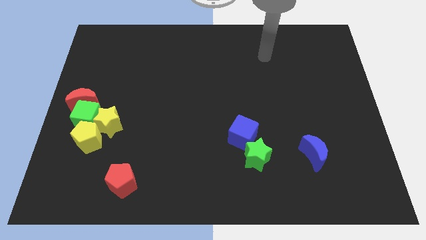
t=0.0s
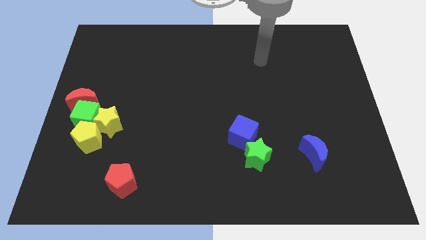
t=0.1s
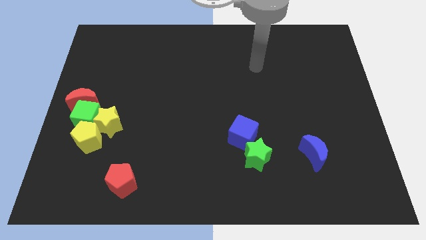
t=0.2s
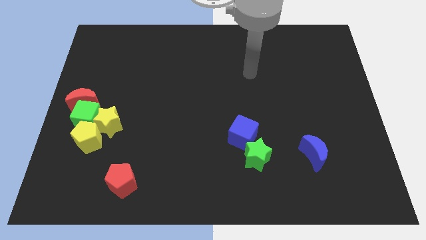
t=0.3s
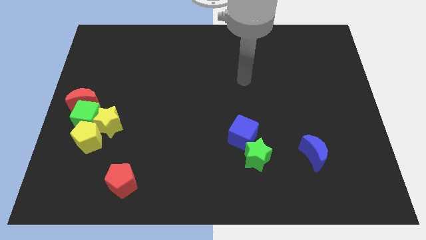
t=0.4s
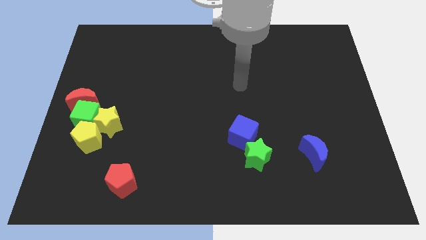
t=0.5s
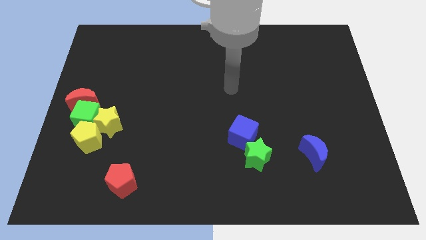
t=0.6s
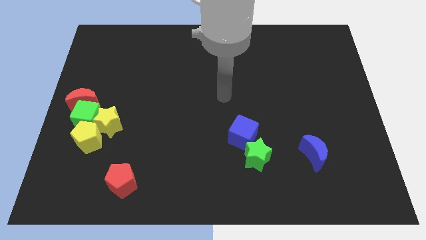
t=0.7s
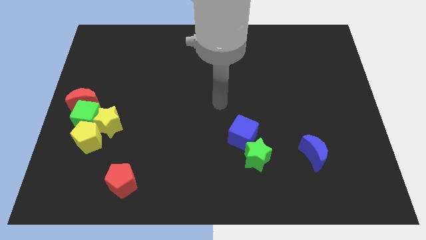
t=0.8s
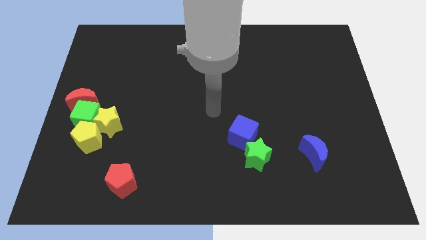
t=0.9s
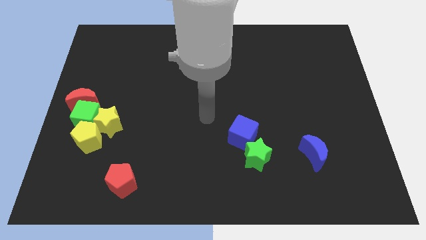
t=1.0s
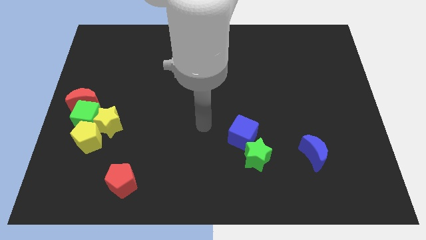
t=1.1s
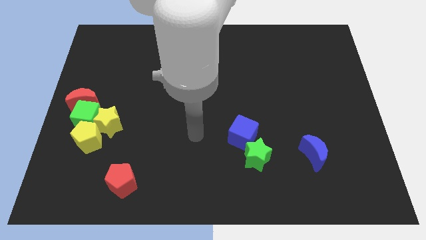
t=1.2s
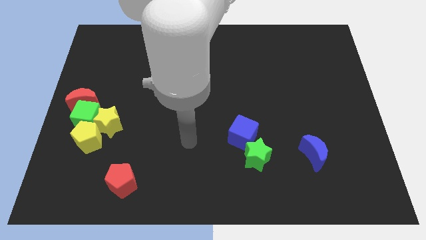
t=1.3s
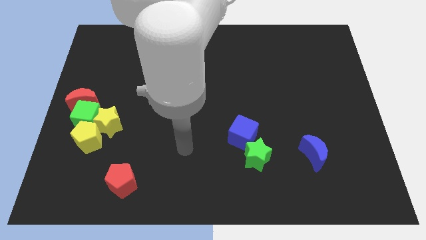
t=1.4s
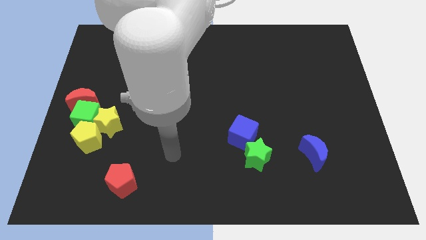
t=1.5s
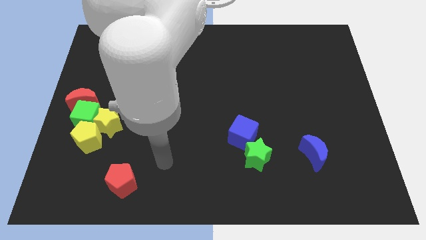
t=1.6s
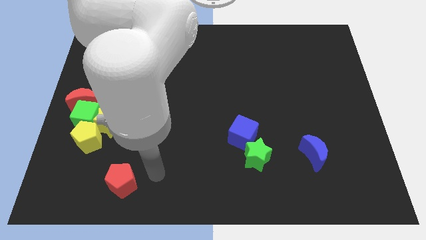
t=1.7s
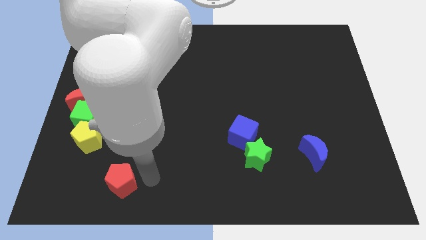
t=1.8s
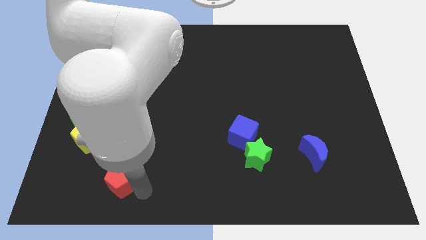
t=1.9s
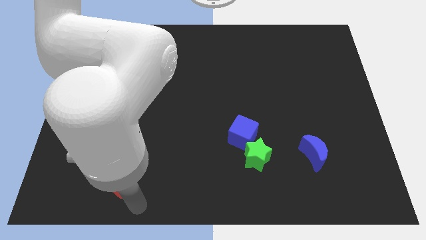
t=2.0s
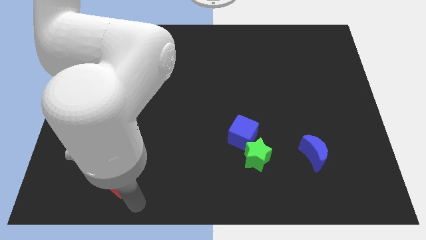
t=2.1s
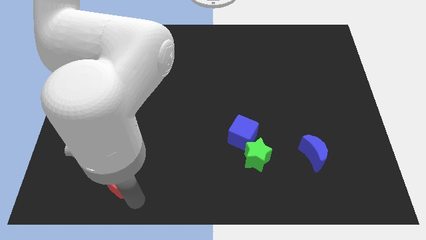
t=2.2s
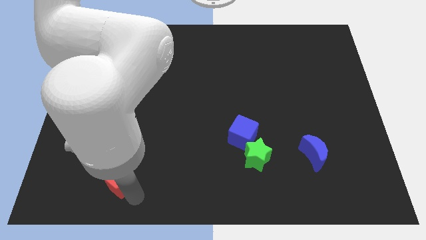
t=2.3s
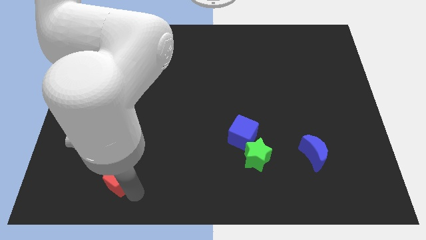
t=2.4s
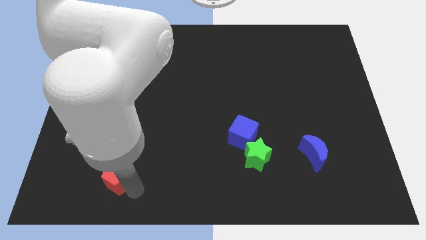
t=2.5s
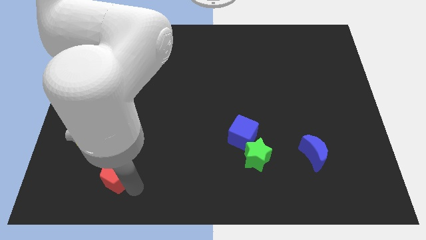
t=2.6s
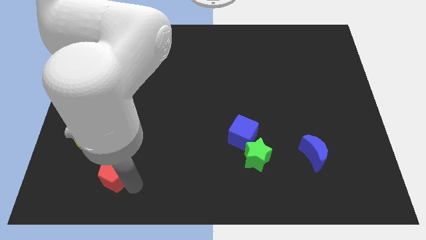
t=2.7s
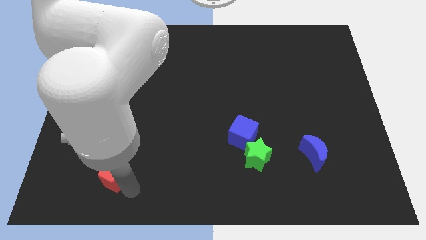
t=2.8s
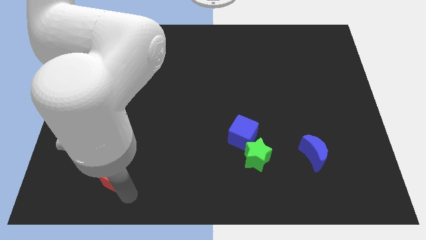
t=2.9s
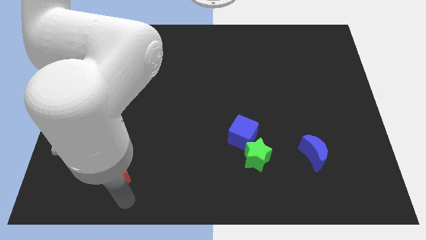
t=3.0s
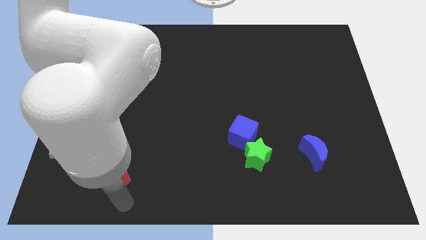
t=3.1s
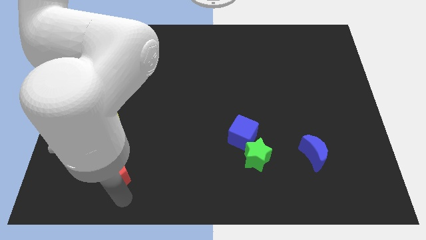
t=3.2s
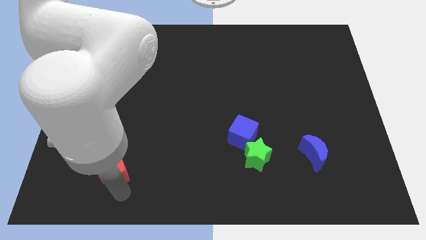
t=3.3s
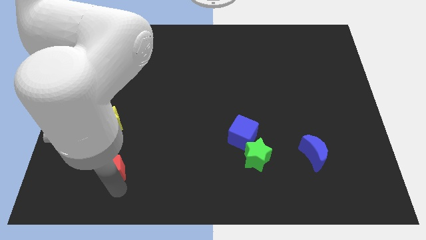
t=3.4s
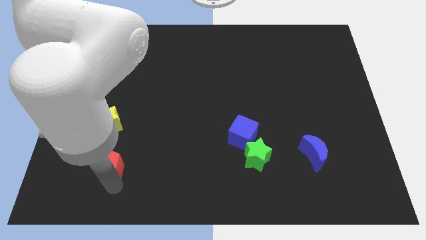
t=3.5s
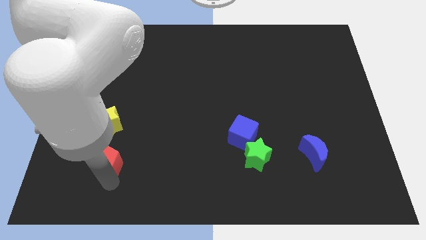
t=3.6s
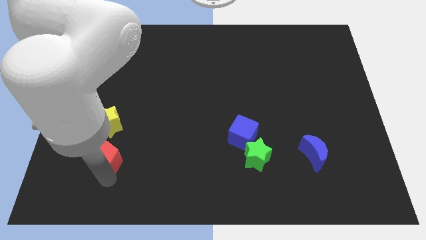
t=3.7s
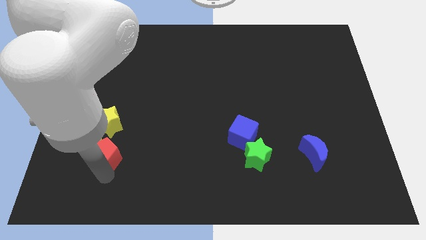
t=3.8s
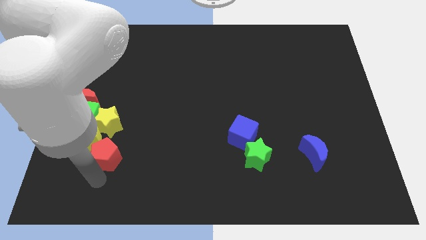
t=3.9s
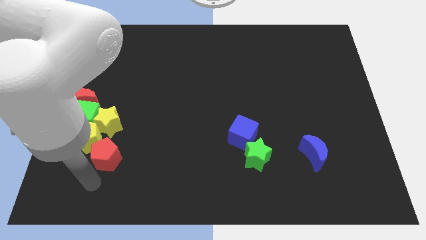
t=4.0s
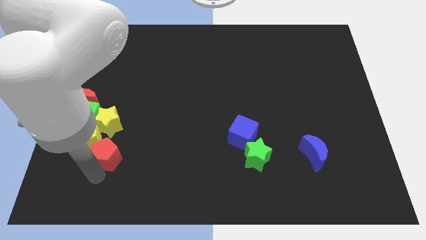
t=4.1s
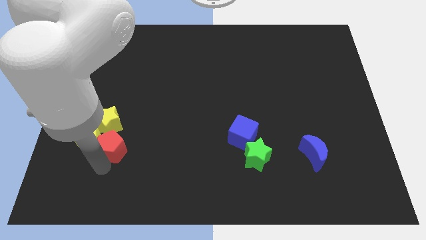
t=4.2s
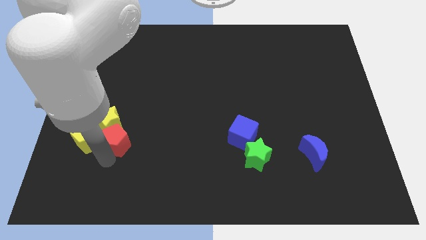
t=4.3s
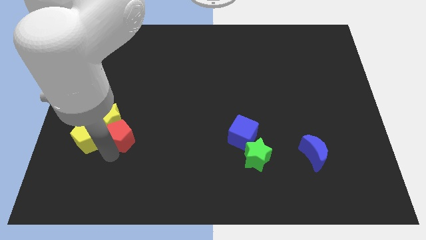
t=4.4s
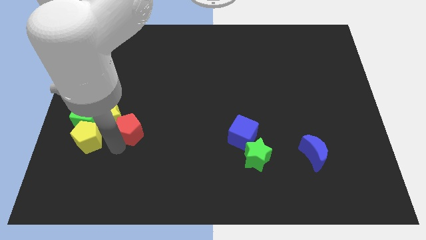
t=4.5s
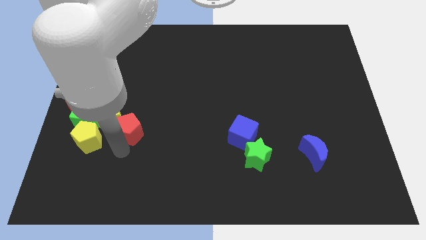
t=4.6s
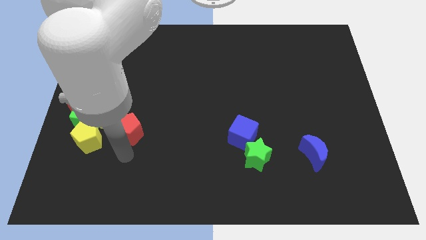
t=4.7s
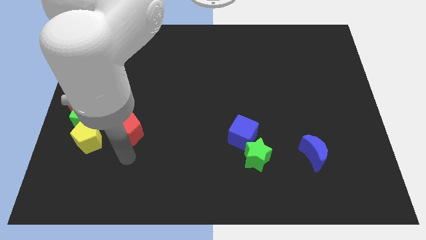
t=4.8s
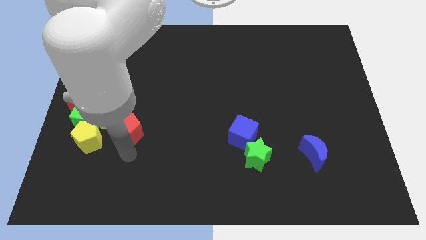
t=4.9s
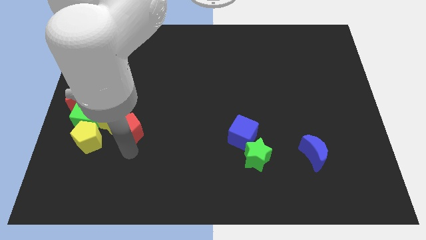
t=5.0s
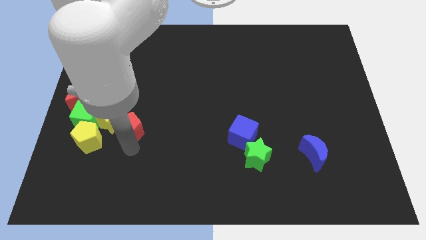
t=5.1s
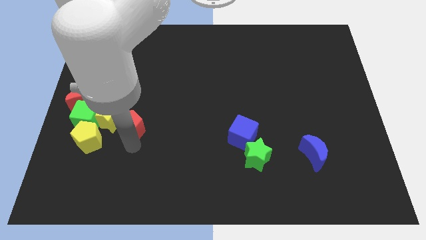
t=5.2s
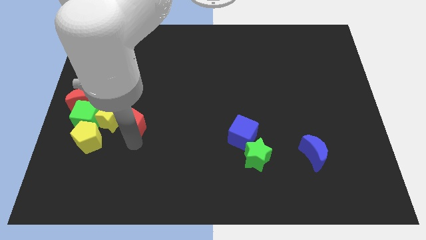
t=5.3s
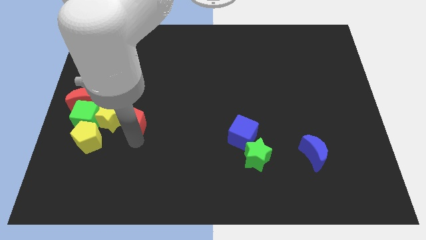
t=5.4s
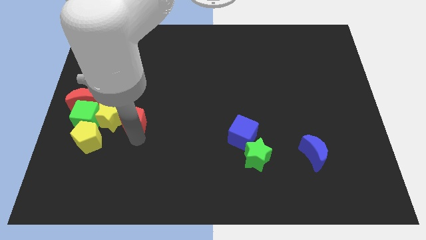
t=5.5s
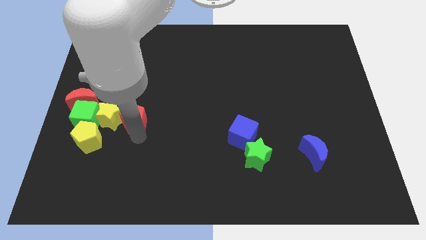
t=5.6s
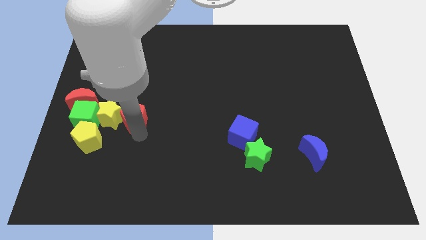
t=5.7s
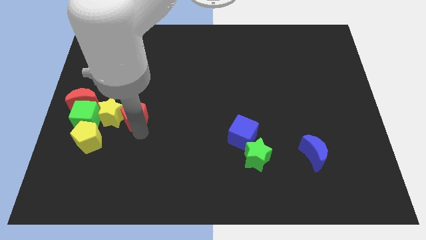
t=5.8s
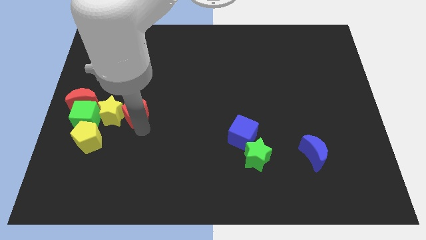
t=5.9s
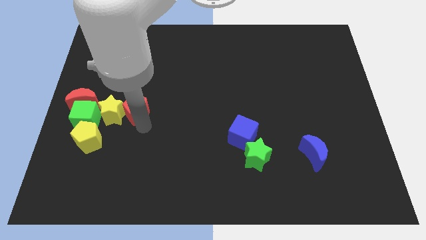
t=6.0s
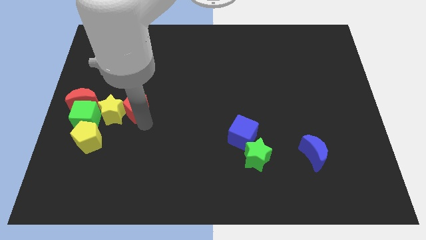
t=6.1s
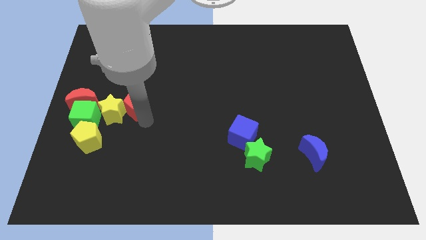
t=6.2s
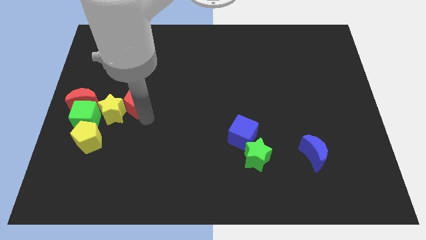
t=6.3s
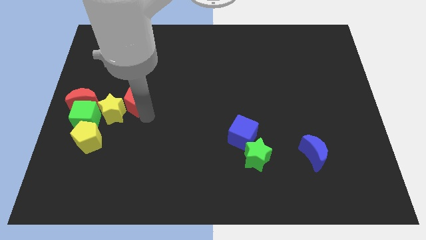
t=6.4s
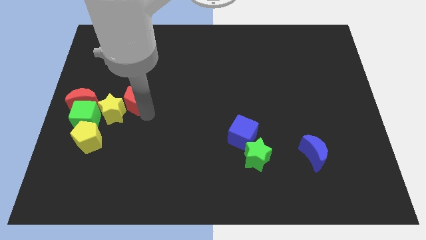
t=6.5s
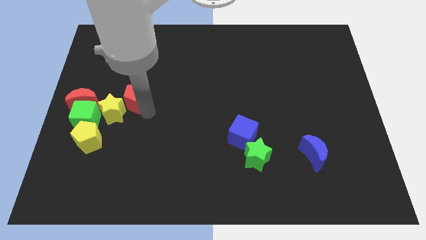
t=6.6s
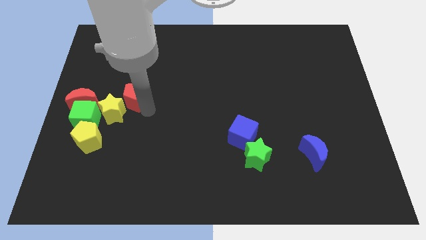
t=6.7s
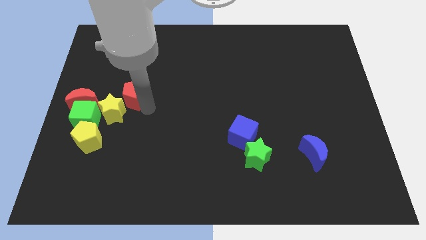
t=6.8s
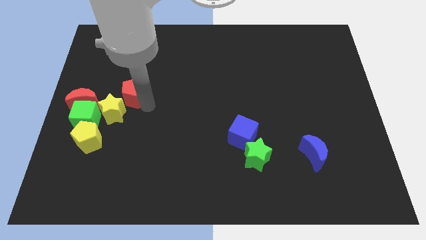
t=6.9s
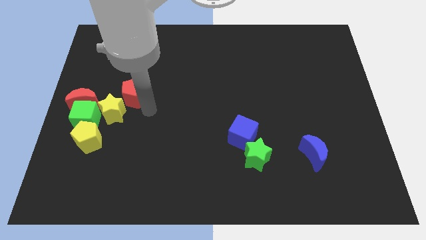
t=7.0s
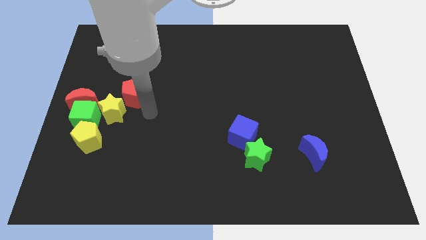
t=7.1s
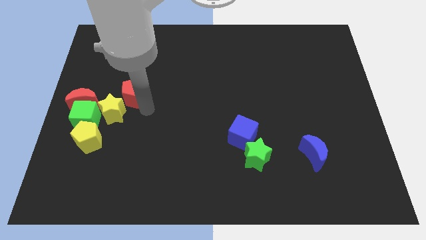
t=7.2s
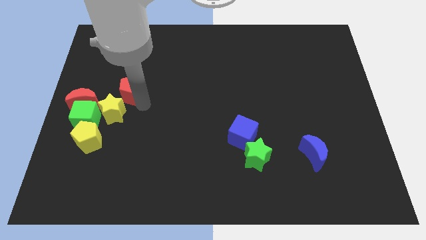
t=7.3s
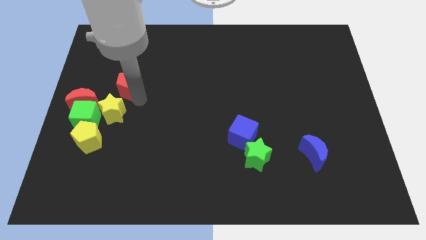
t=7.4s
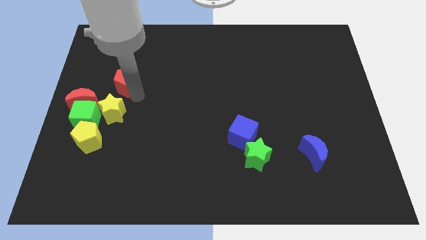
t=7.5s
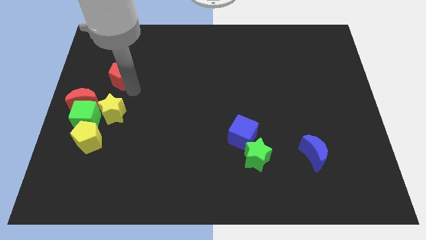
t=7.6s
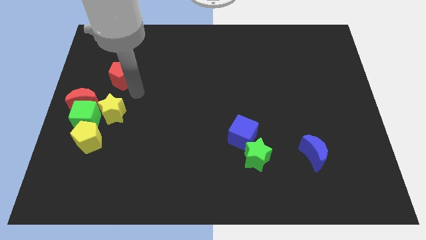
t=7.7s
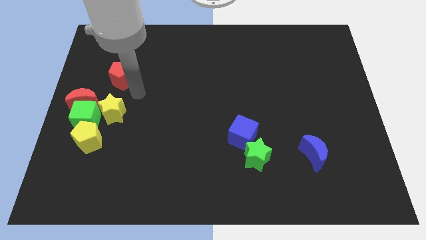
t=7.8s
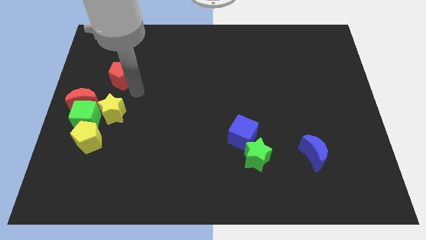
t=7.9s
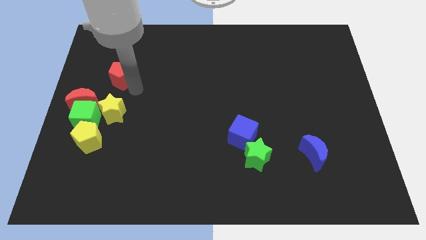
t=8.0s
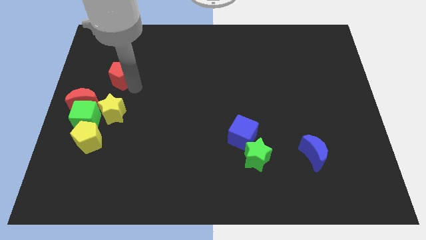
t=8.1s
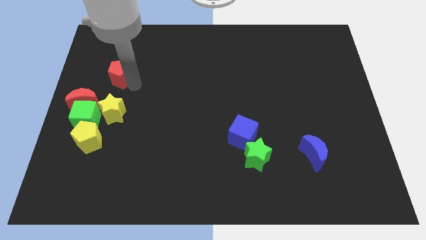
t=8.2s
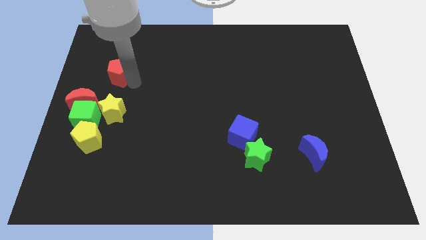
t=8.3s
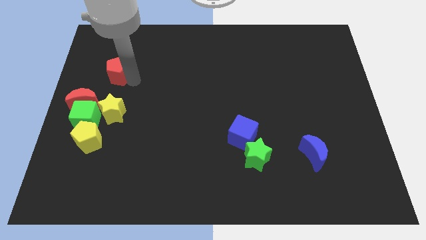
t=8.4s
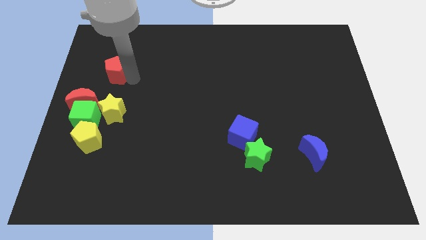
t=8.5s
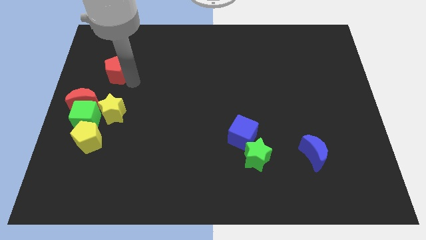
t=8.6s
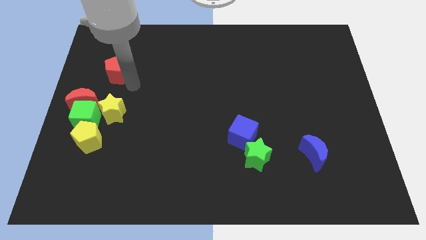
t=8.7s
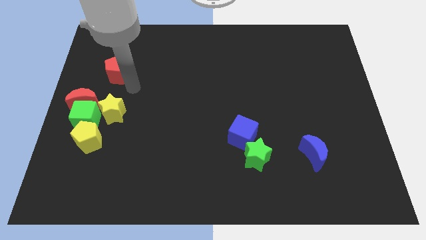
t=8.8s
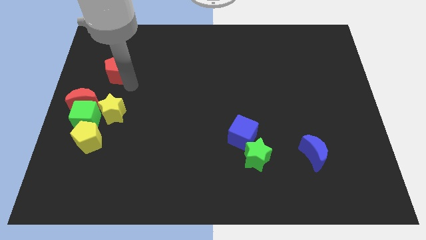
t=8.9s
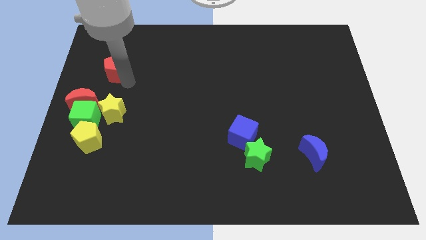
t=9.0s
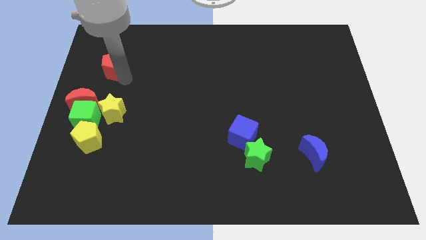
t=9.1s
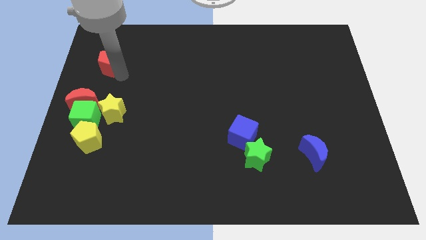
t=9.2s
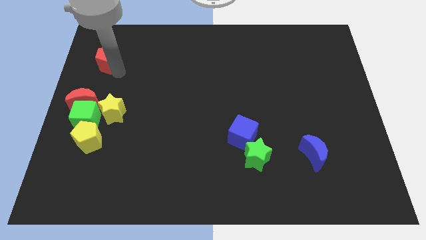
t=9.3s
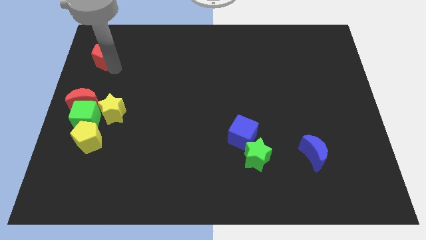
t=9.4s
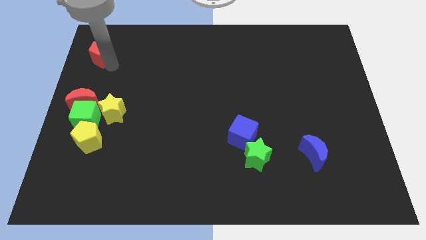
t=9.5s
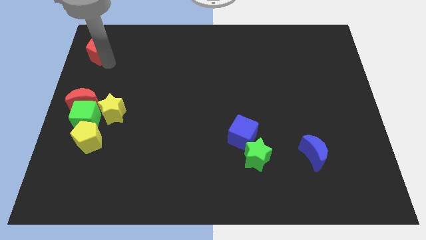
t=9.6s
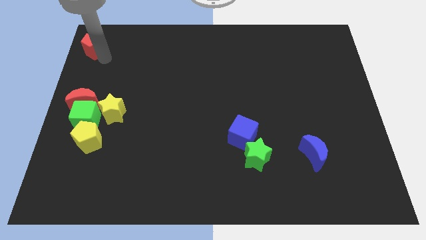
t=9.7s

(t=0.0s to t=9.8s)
slide the red pentagon to the upper left corner
